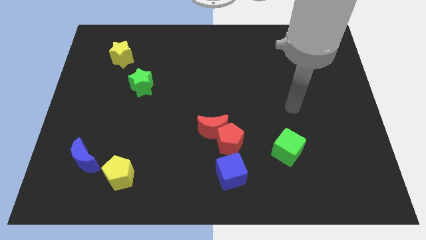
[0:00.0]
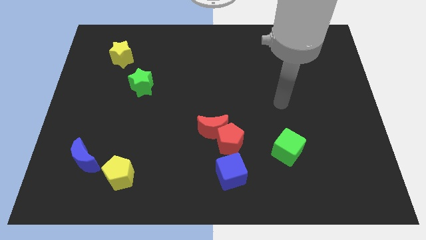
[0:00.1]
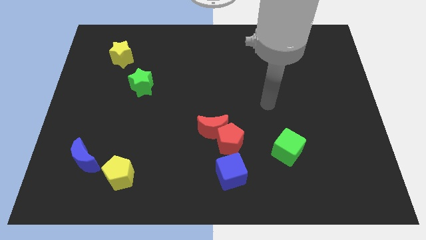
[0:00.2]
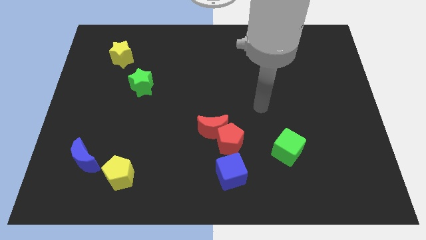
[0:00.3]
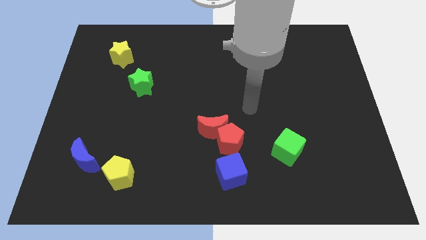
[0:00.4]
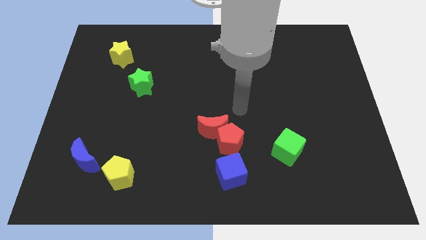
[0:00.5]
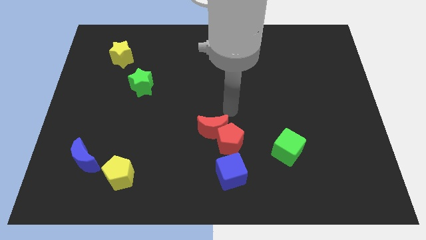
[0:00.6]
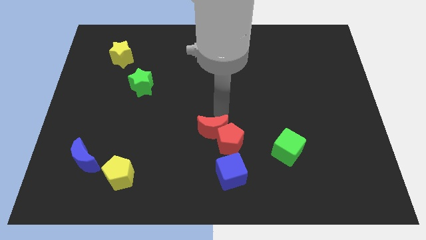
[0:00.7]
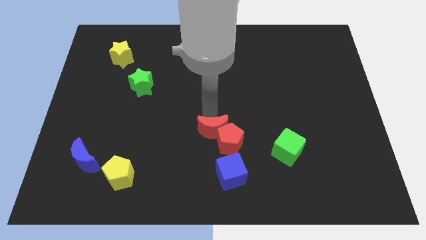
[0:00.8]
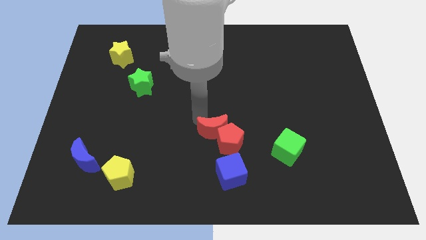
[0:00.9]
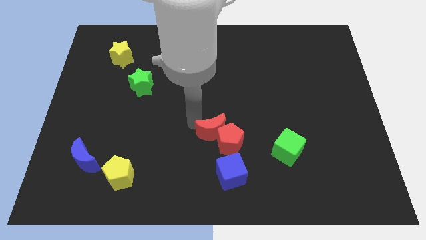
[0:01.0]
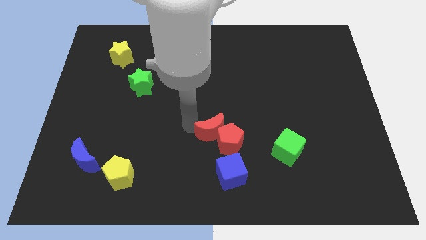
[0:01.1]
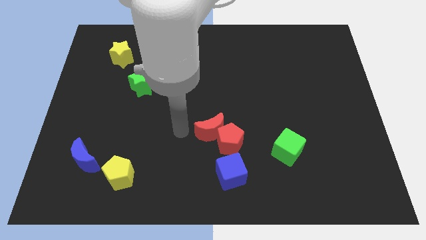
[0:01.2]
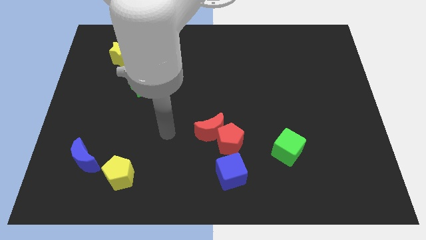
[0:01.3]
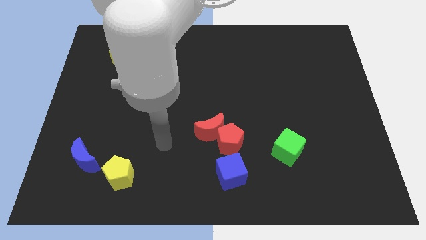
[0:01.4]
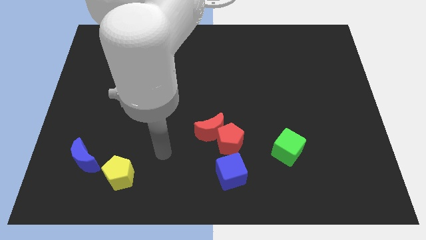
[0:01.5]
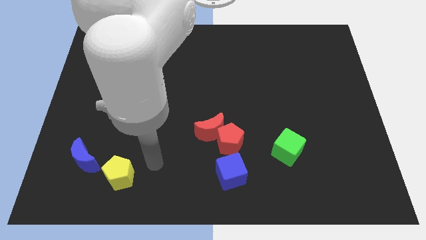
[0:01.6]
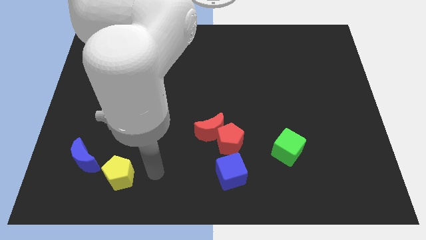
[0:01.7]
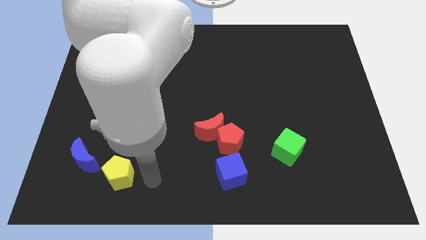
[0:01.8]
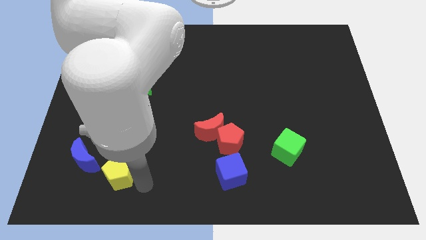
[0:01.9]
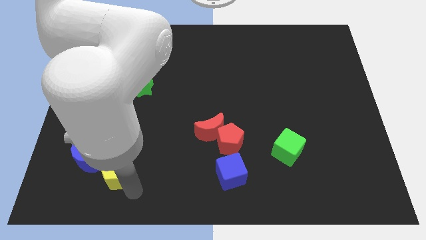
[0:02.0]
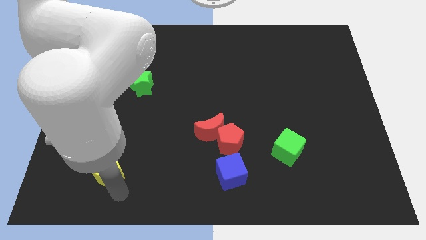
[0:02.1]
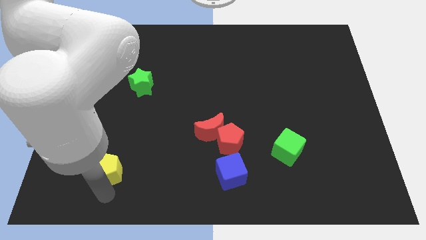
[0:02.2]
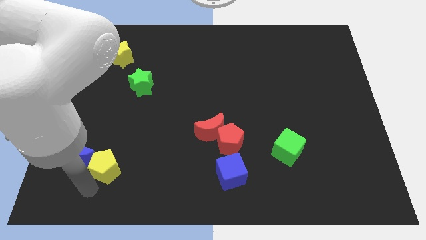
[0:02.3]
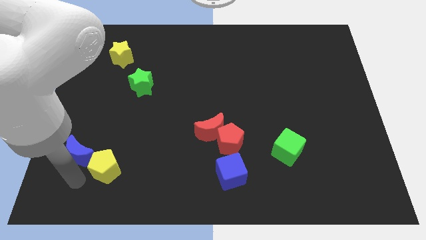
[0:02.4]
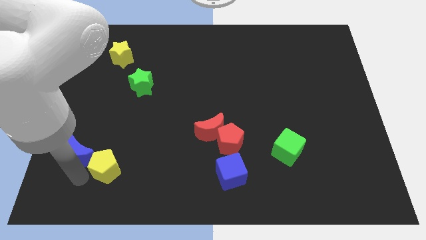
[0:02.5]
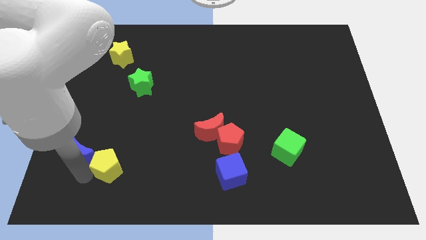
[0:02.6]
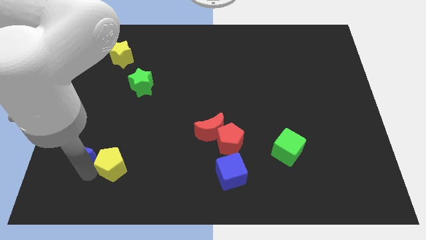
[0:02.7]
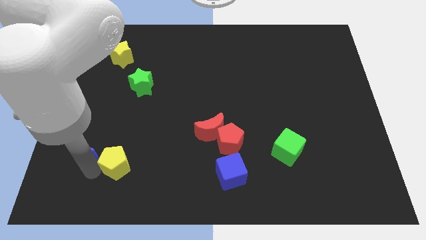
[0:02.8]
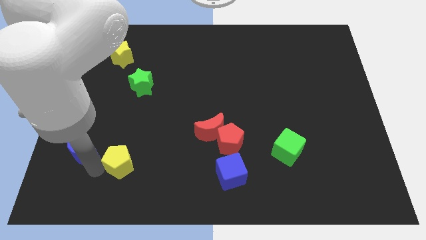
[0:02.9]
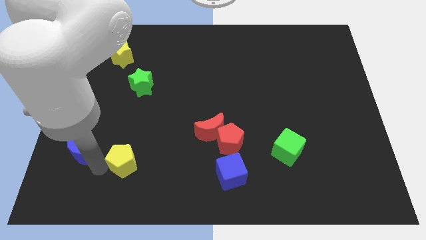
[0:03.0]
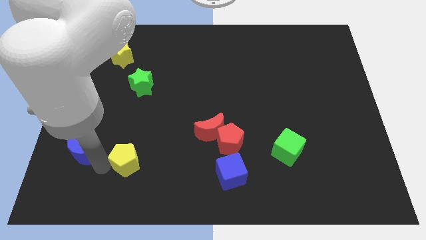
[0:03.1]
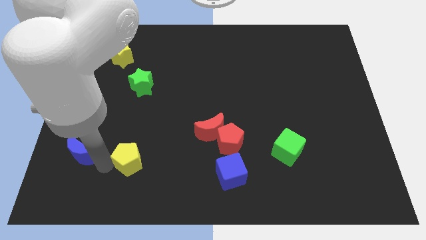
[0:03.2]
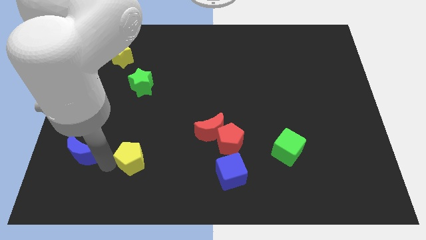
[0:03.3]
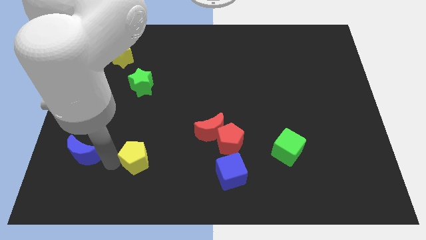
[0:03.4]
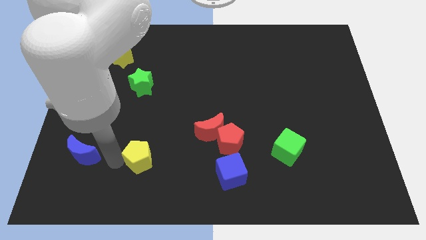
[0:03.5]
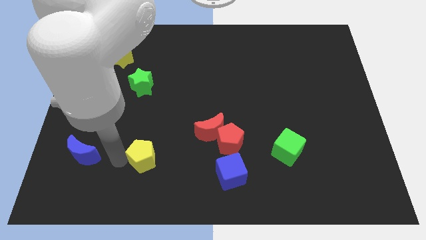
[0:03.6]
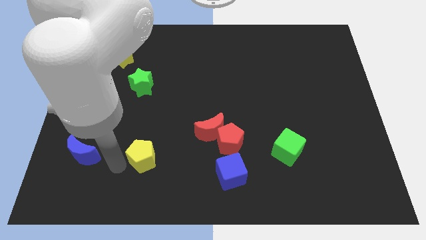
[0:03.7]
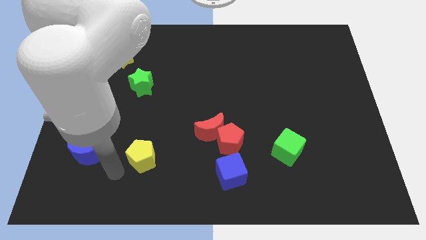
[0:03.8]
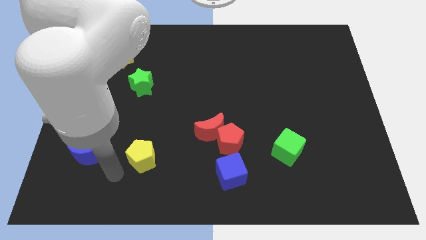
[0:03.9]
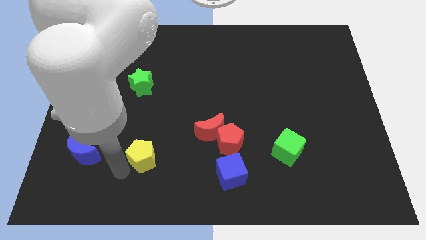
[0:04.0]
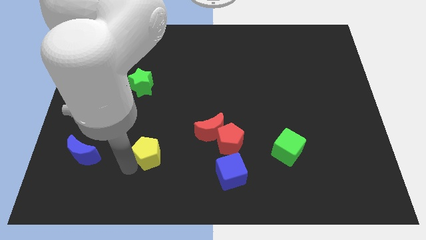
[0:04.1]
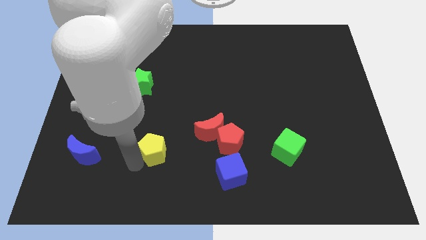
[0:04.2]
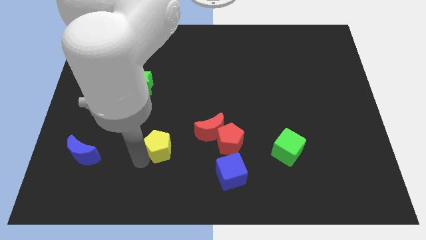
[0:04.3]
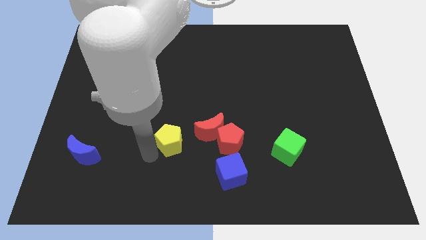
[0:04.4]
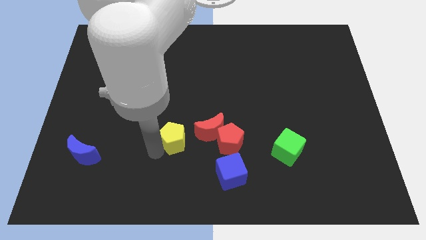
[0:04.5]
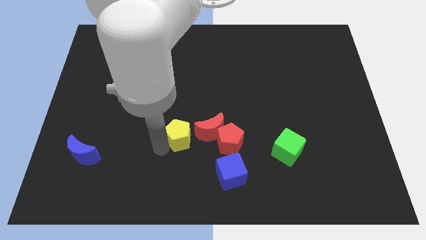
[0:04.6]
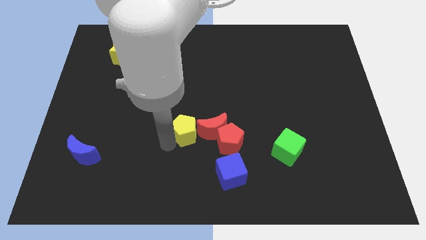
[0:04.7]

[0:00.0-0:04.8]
slide the yellow pentagon close to the red moon

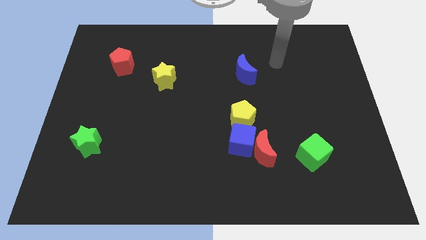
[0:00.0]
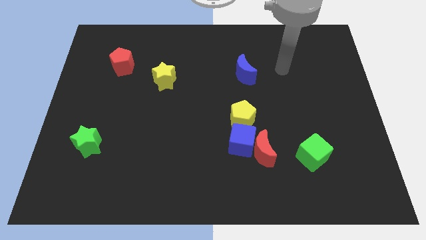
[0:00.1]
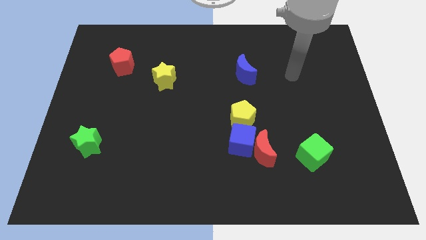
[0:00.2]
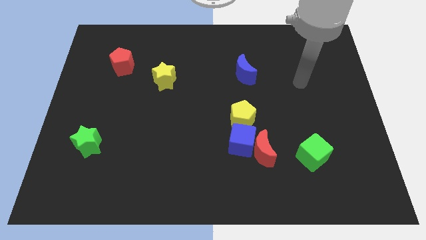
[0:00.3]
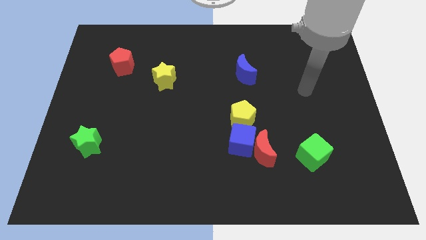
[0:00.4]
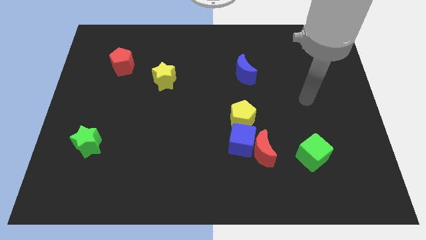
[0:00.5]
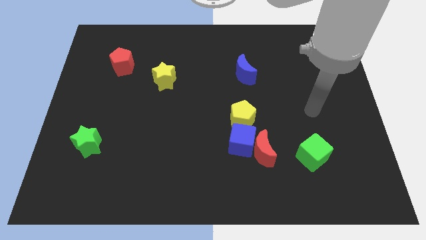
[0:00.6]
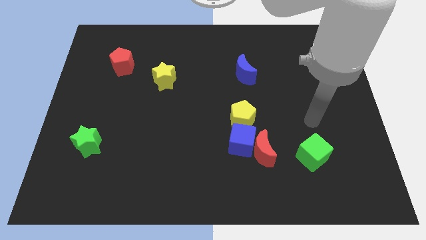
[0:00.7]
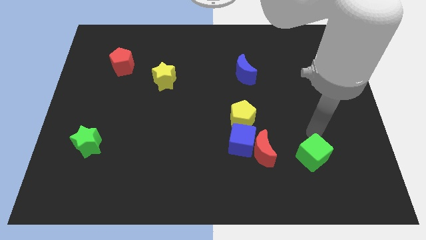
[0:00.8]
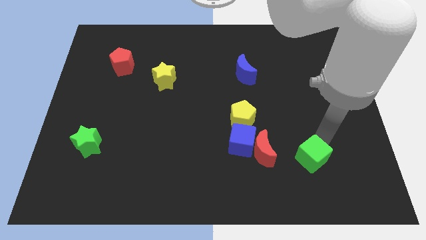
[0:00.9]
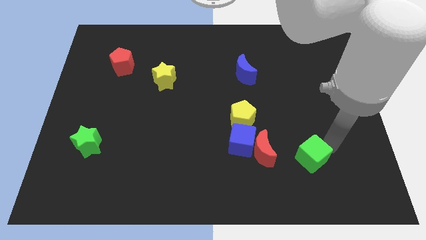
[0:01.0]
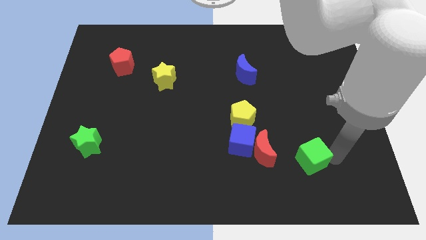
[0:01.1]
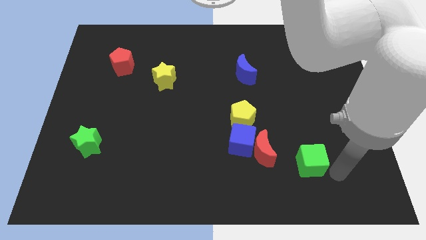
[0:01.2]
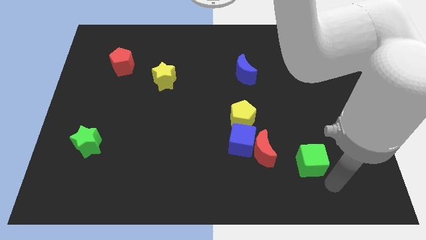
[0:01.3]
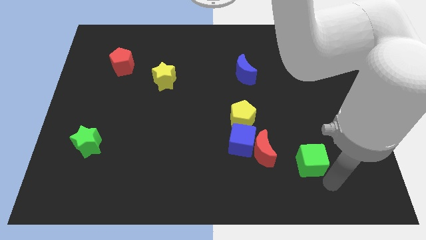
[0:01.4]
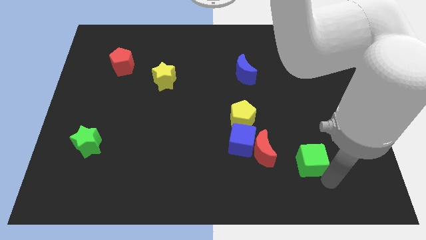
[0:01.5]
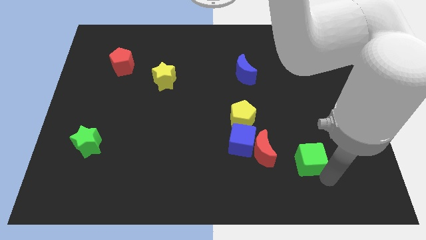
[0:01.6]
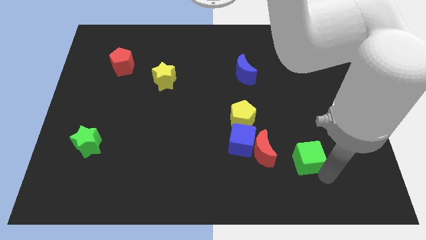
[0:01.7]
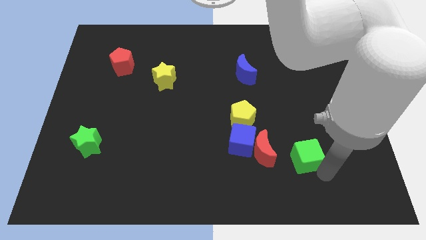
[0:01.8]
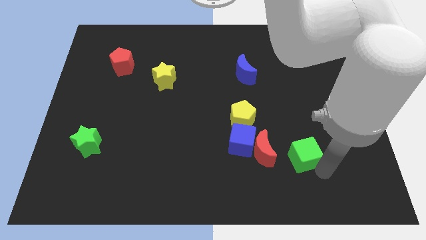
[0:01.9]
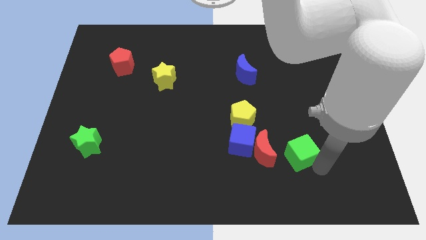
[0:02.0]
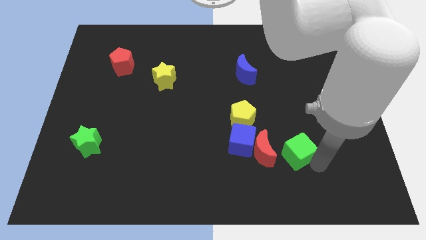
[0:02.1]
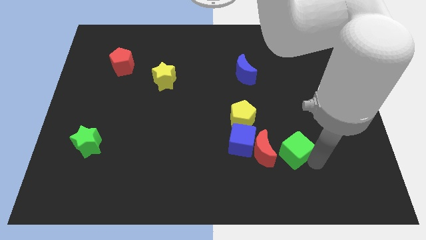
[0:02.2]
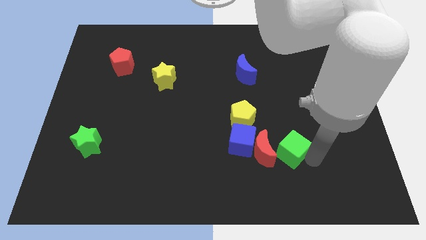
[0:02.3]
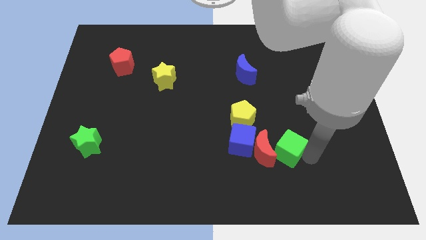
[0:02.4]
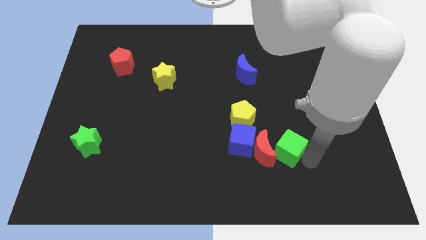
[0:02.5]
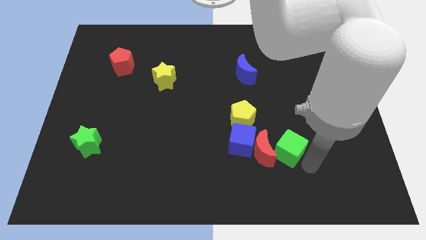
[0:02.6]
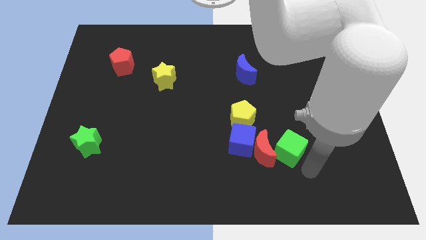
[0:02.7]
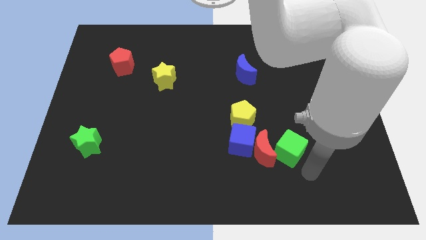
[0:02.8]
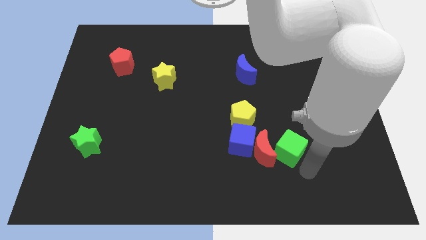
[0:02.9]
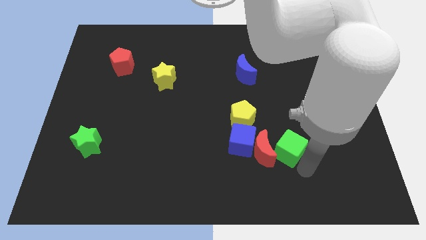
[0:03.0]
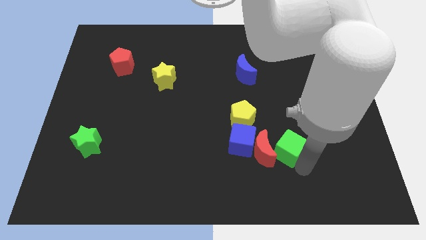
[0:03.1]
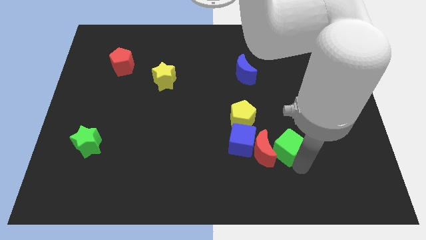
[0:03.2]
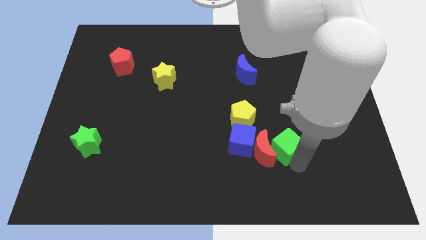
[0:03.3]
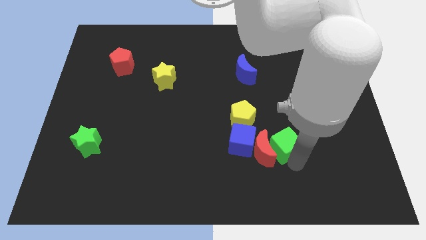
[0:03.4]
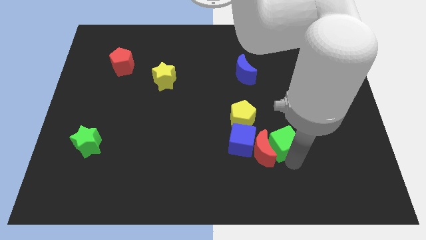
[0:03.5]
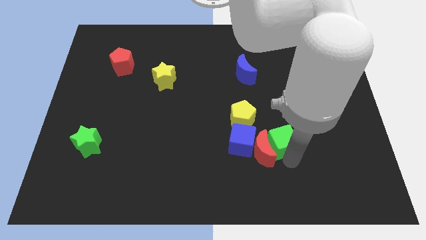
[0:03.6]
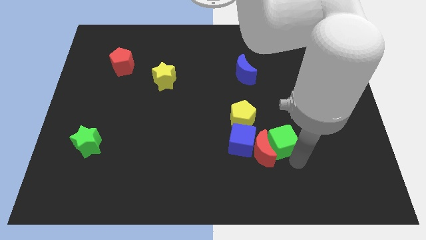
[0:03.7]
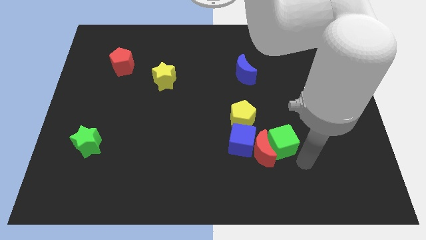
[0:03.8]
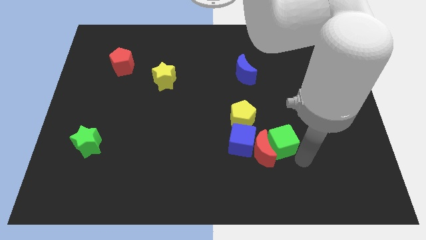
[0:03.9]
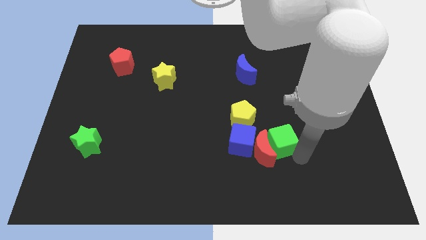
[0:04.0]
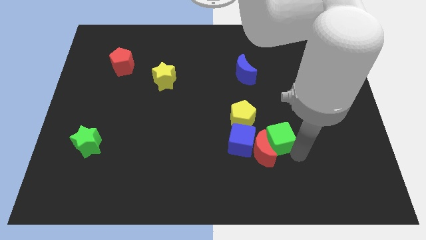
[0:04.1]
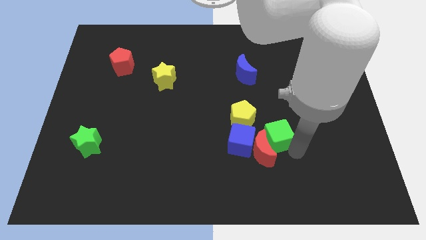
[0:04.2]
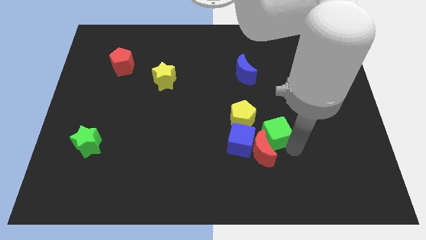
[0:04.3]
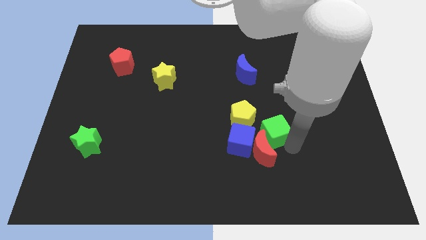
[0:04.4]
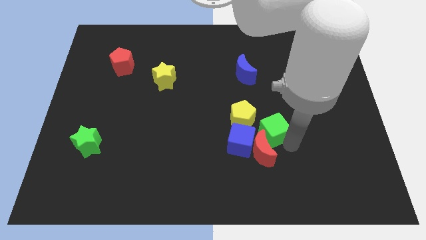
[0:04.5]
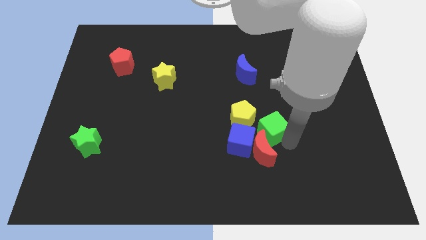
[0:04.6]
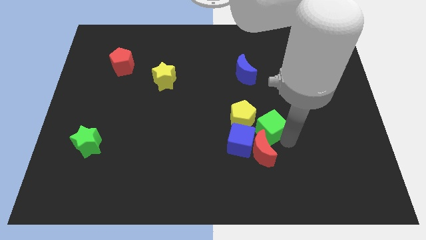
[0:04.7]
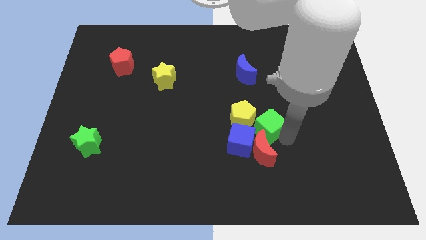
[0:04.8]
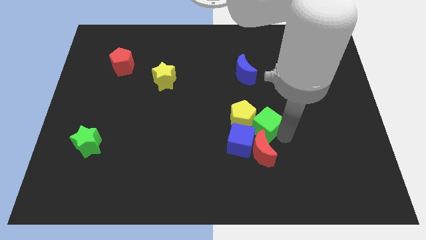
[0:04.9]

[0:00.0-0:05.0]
put the green cube close to the yellow pentagon
